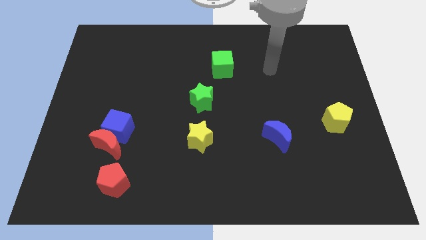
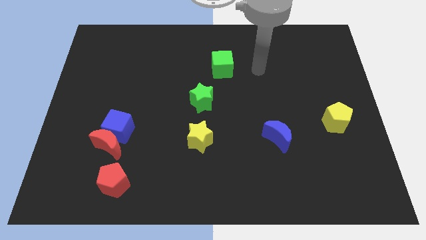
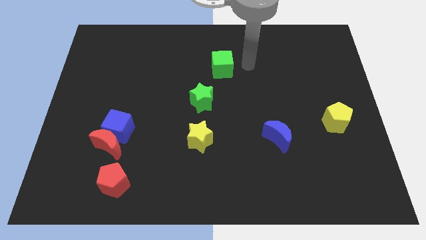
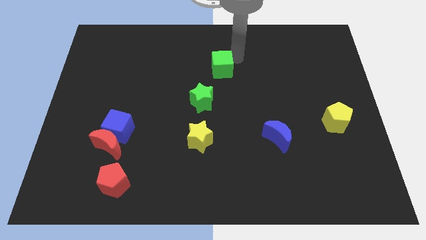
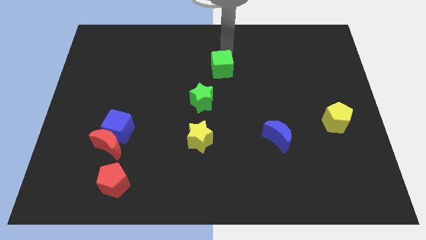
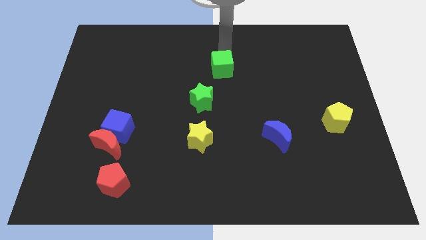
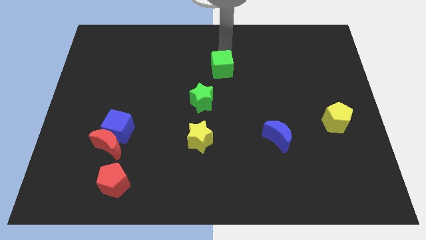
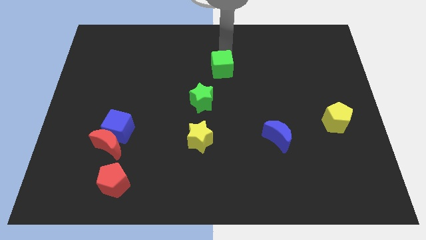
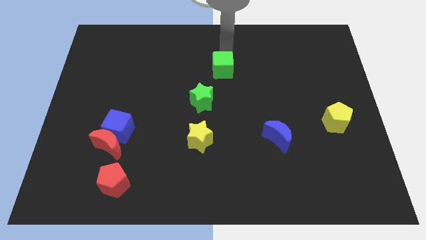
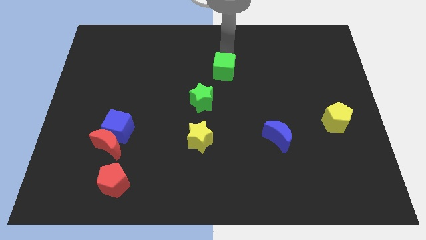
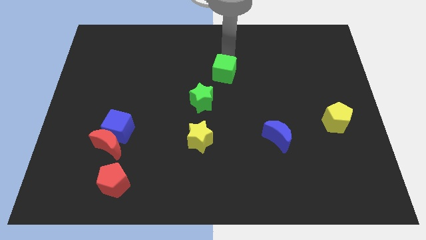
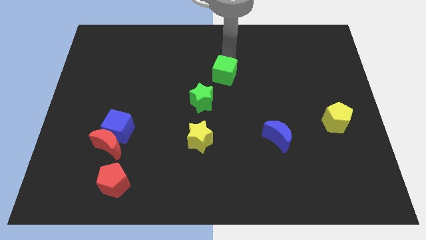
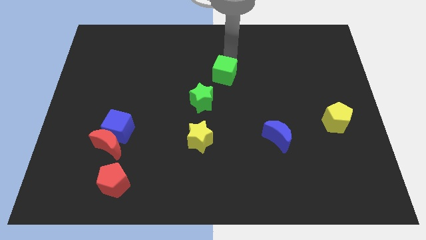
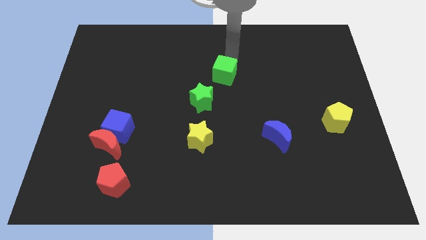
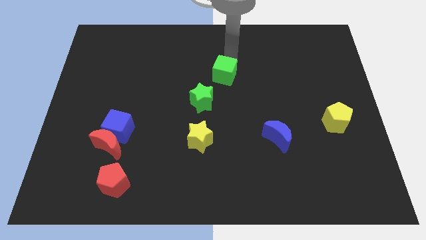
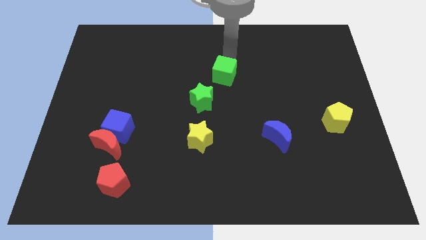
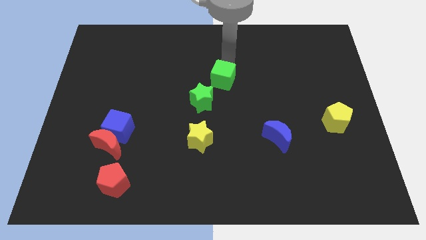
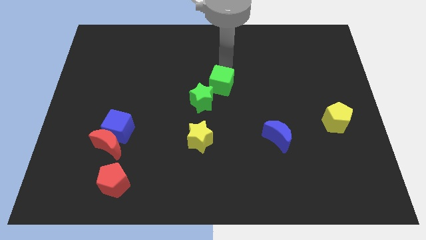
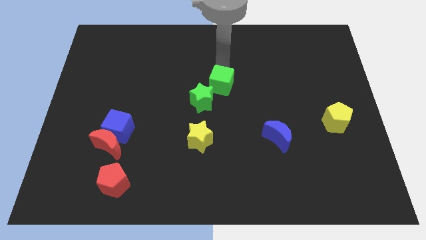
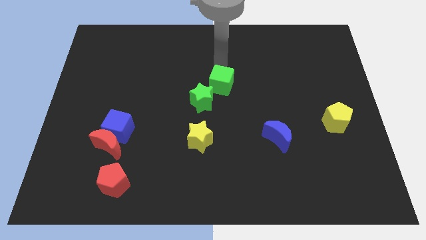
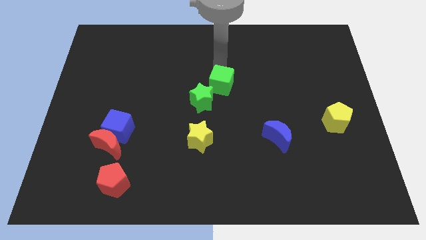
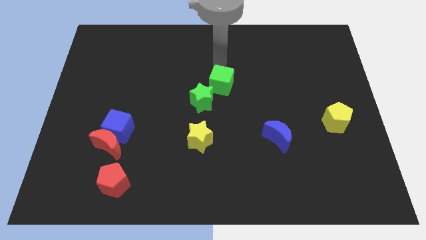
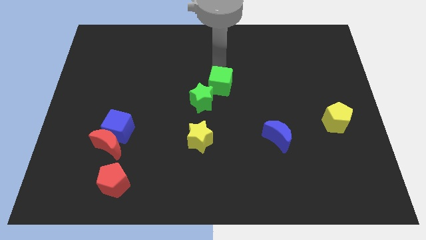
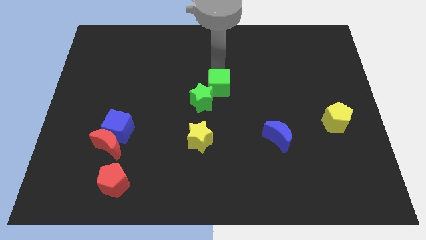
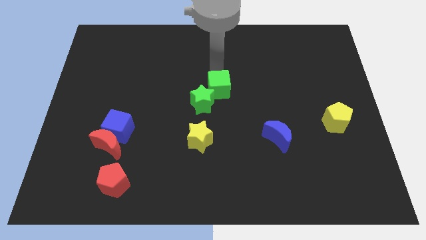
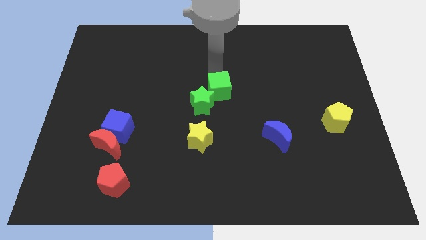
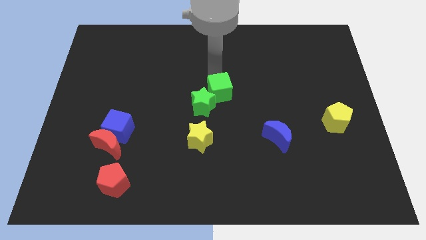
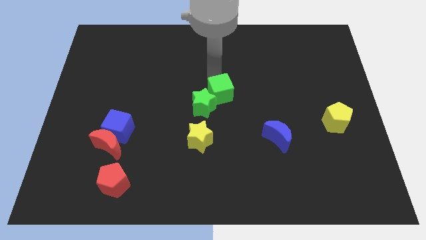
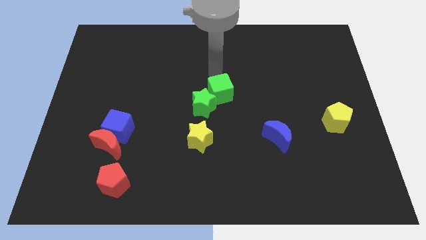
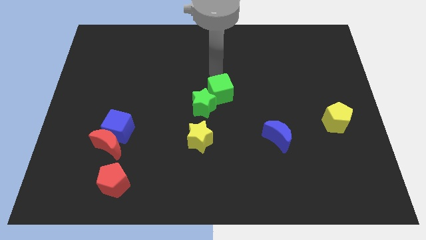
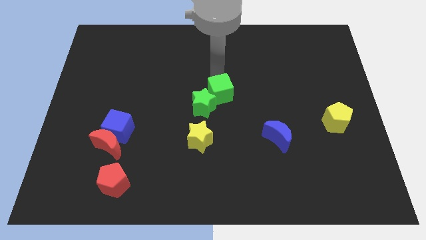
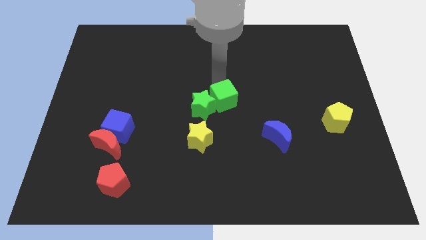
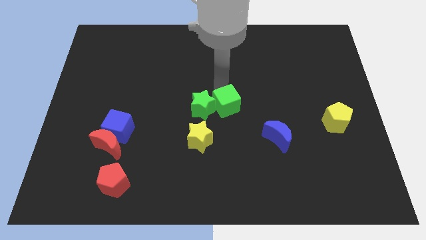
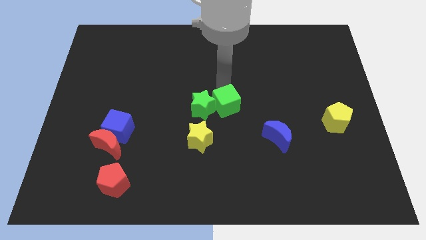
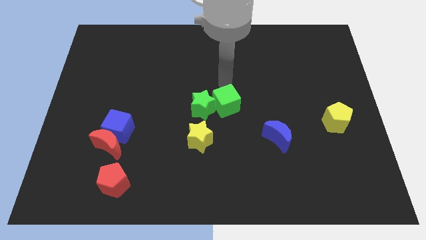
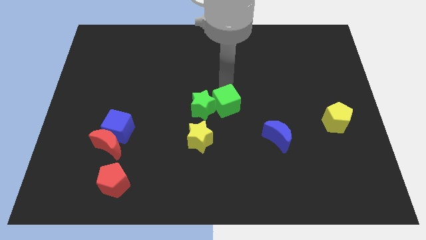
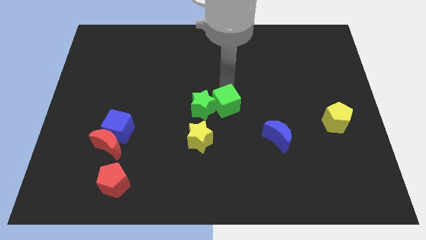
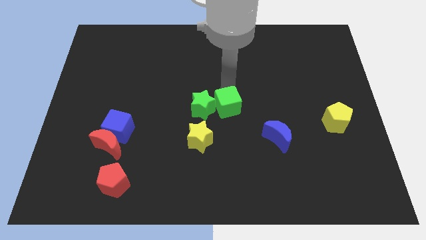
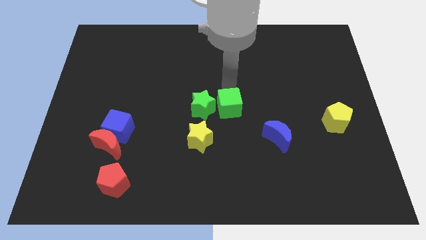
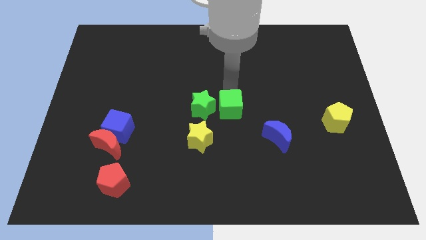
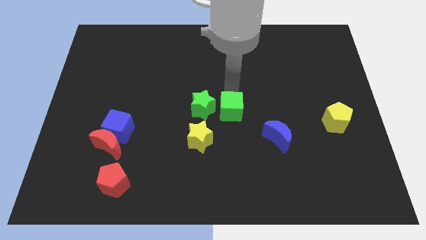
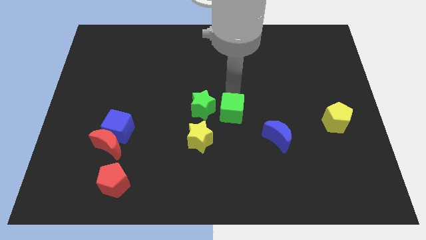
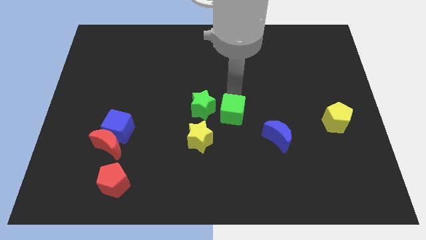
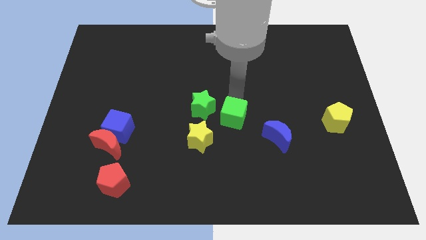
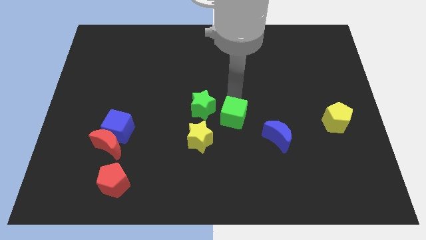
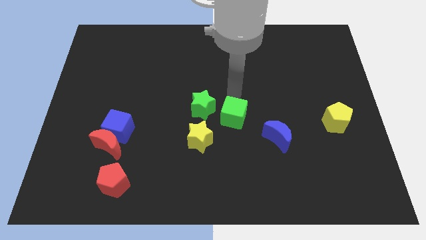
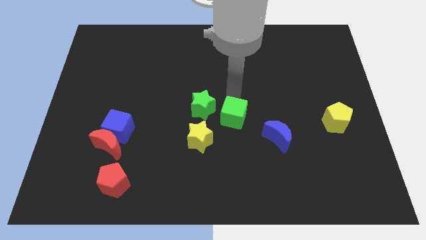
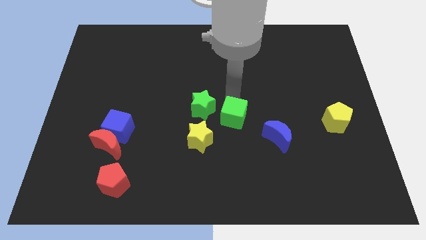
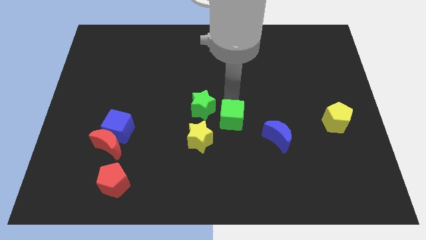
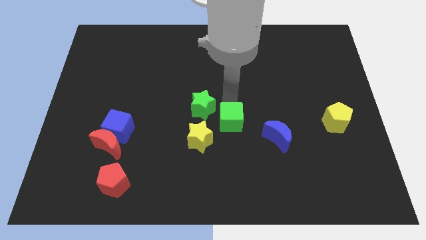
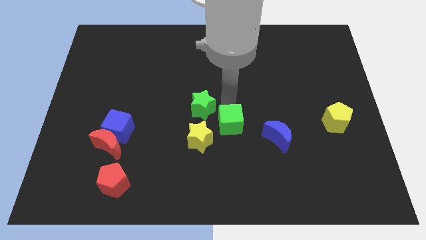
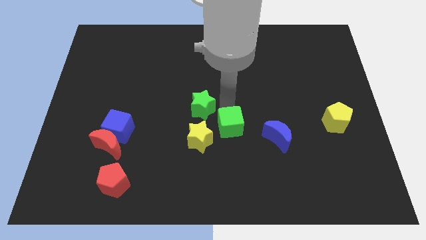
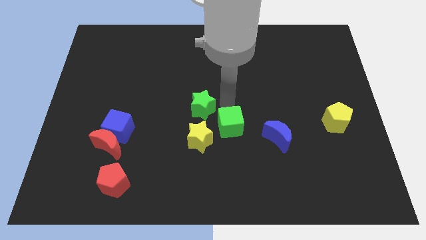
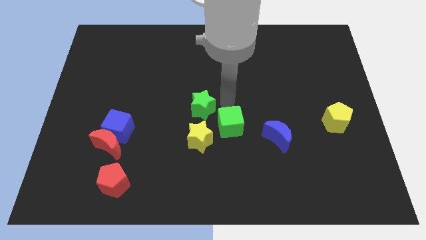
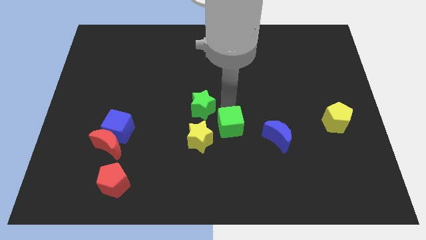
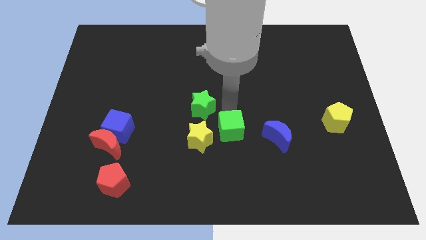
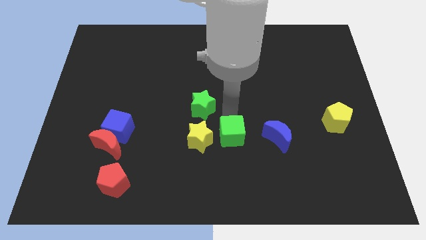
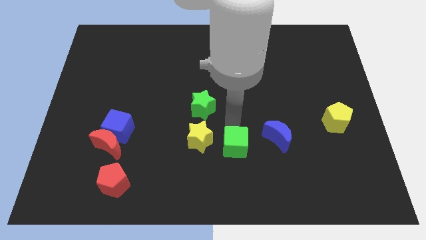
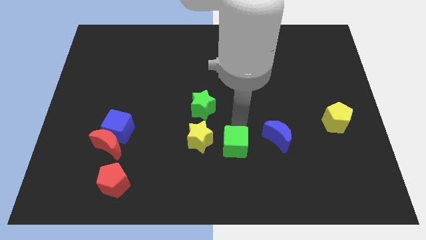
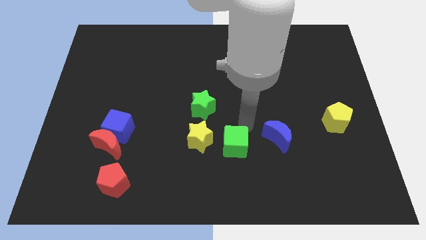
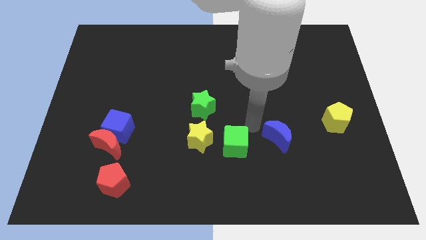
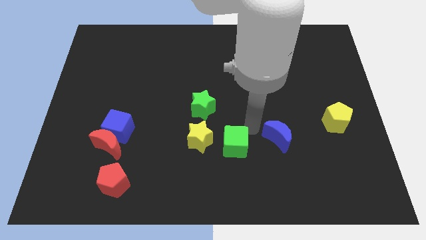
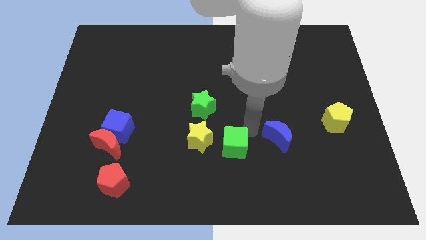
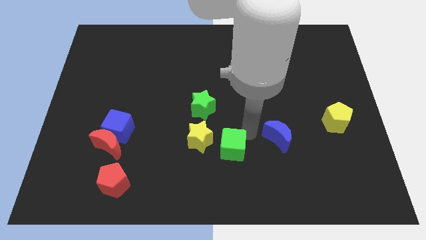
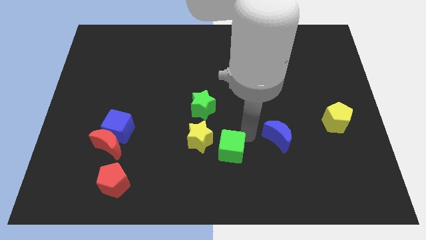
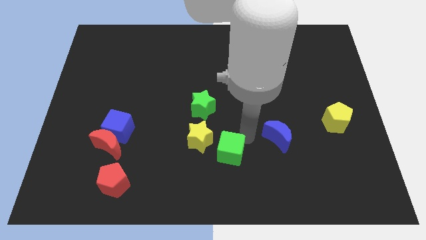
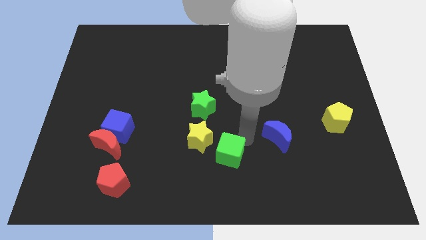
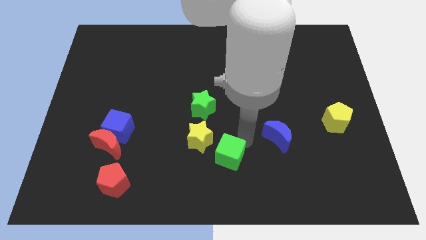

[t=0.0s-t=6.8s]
move the green cube to the bottom side
